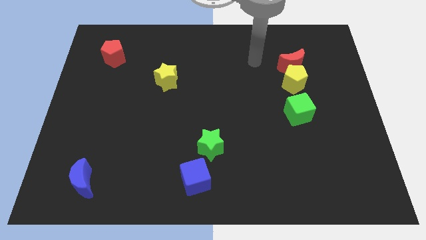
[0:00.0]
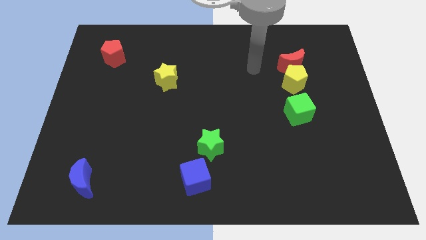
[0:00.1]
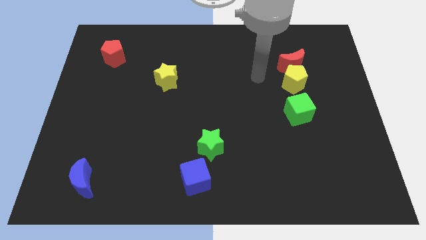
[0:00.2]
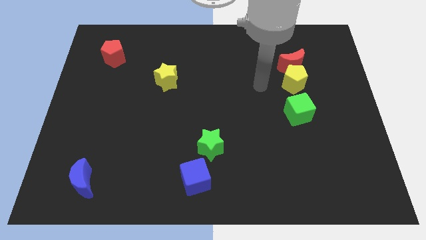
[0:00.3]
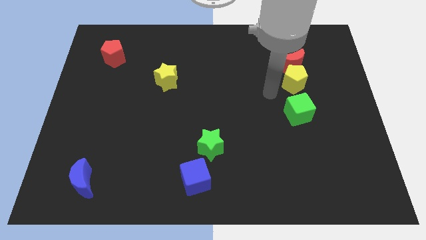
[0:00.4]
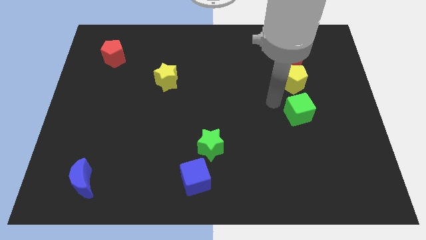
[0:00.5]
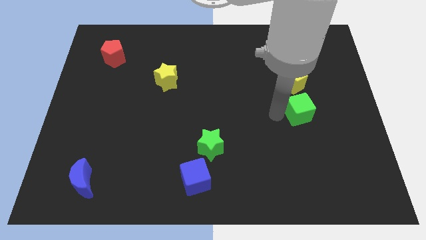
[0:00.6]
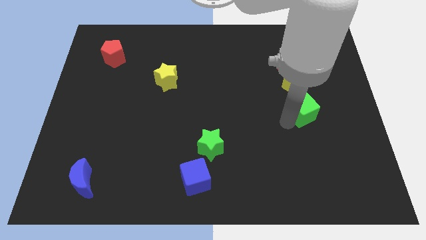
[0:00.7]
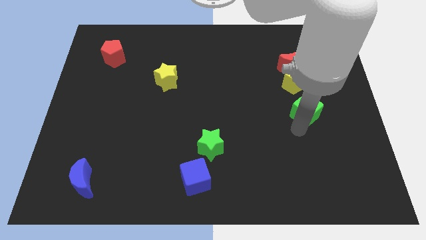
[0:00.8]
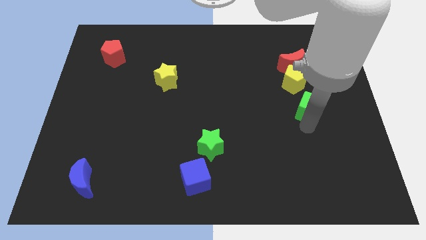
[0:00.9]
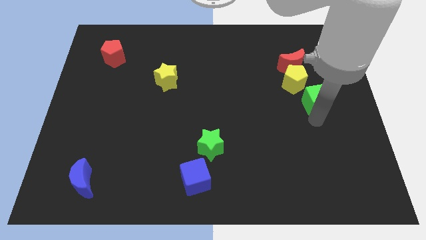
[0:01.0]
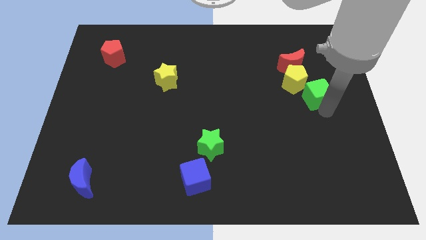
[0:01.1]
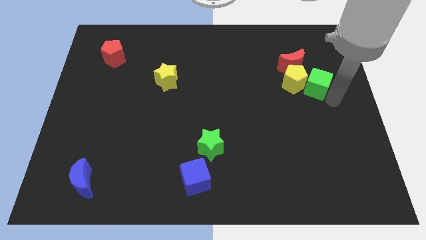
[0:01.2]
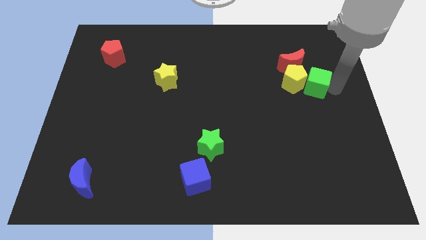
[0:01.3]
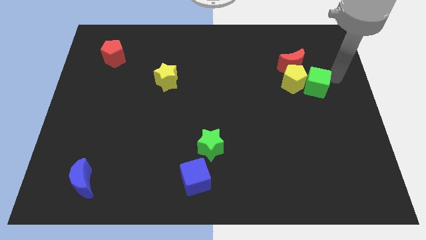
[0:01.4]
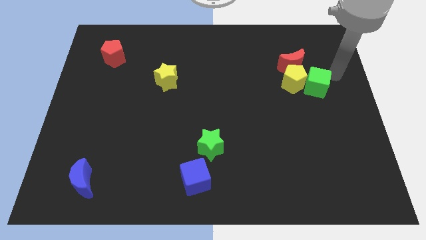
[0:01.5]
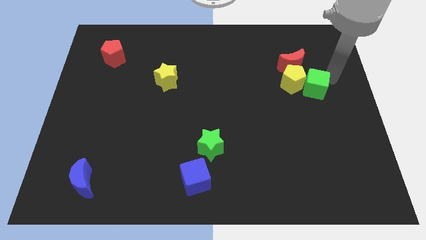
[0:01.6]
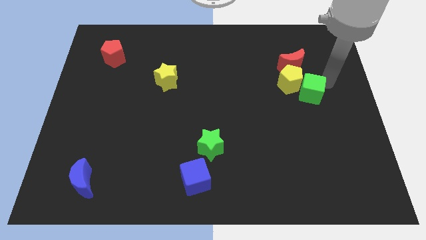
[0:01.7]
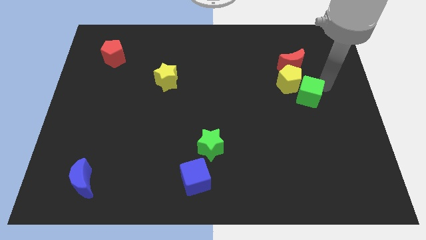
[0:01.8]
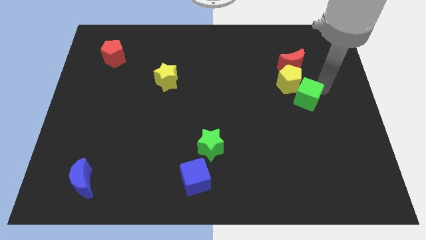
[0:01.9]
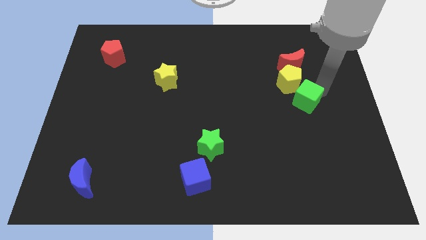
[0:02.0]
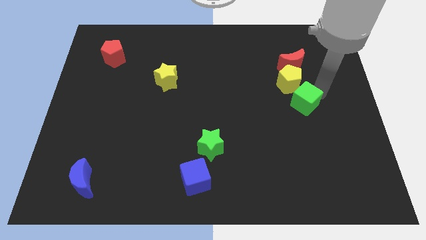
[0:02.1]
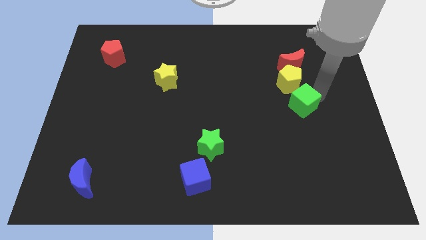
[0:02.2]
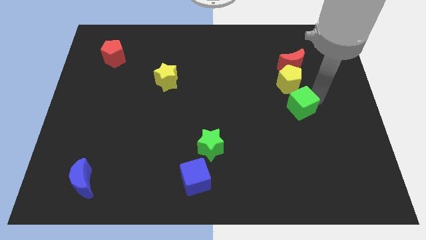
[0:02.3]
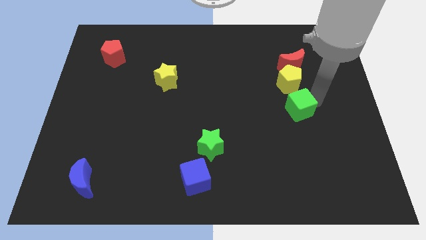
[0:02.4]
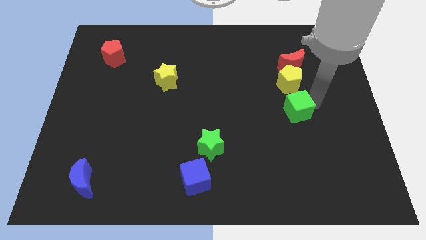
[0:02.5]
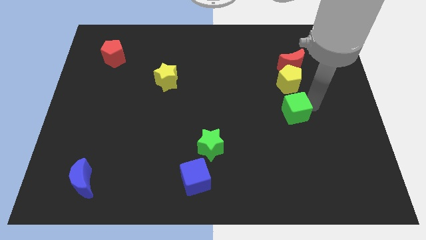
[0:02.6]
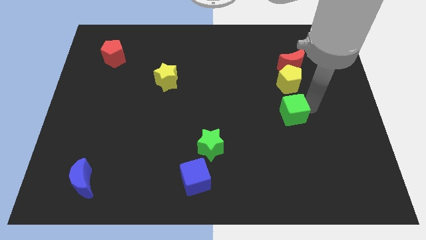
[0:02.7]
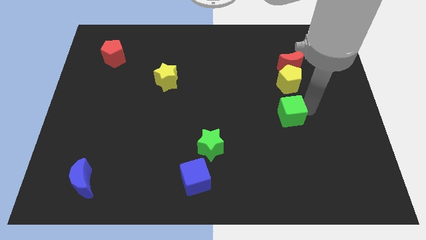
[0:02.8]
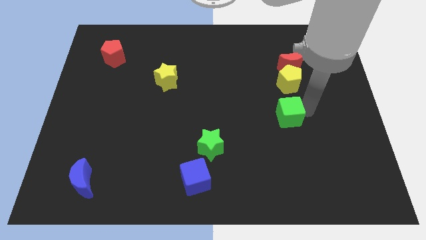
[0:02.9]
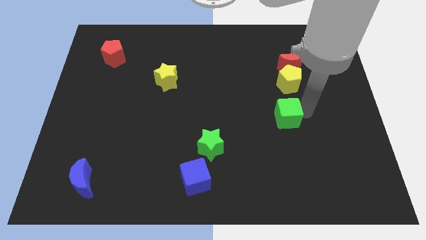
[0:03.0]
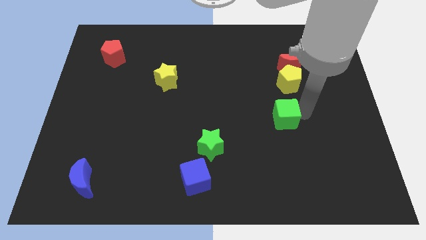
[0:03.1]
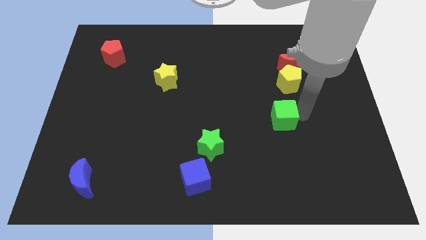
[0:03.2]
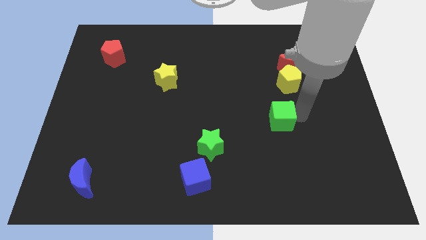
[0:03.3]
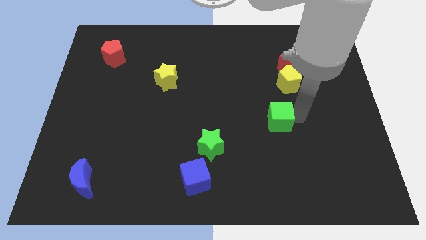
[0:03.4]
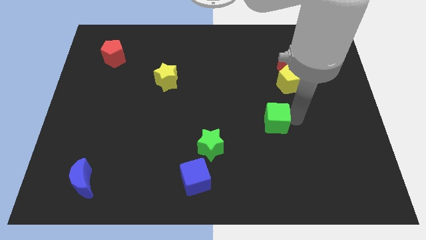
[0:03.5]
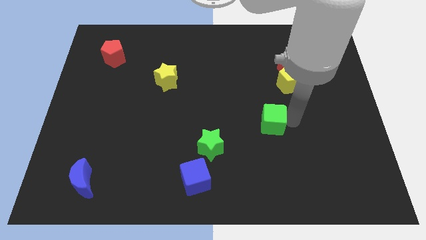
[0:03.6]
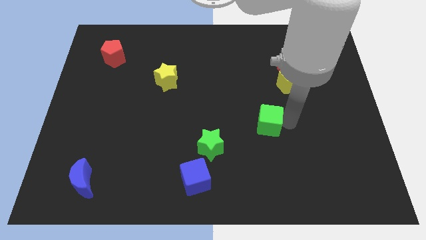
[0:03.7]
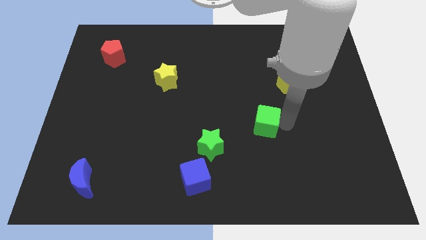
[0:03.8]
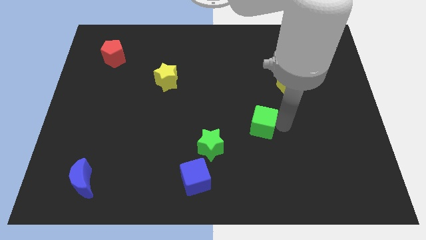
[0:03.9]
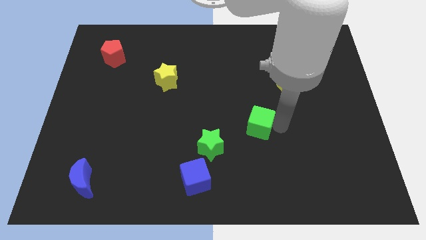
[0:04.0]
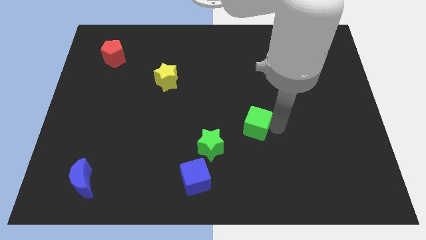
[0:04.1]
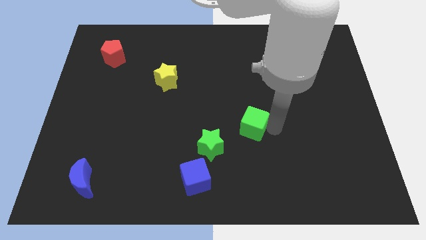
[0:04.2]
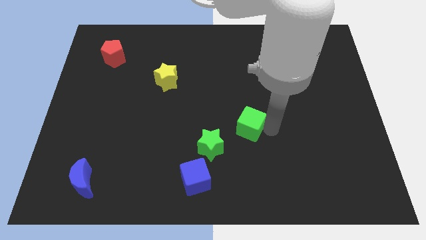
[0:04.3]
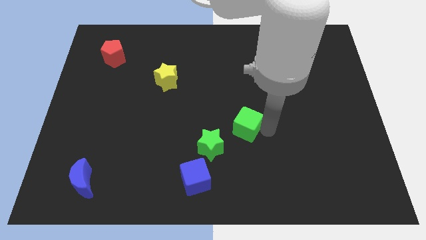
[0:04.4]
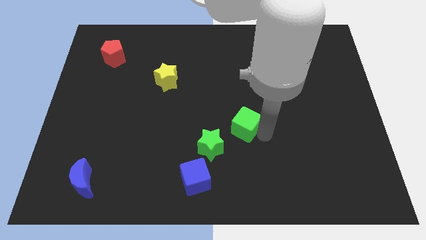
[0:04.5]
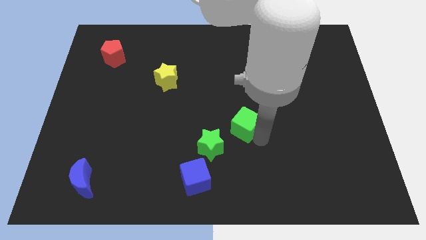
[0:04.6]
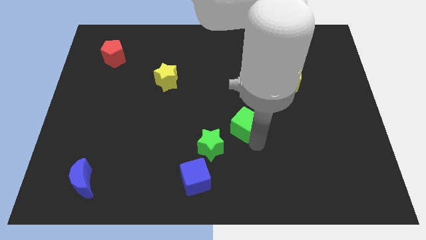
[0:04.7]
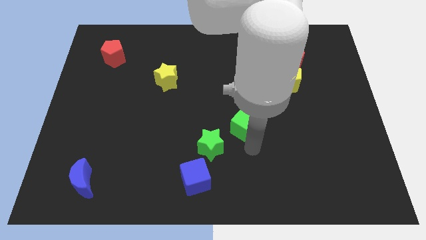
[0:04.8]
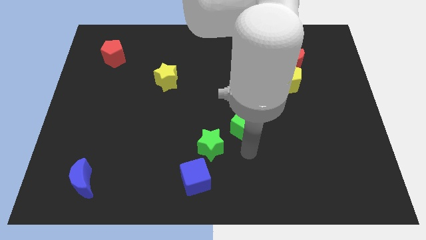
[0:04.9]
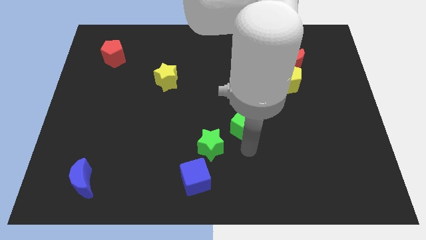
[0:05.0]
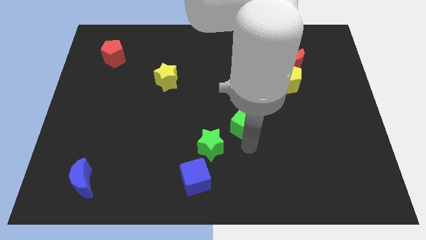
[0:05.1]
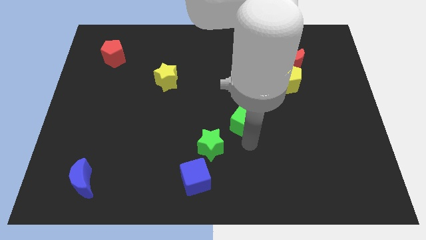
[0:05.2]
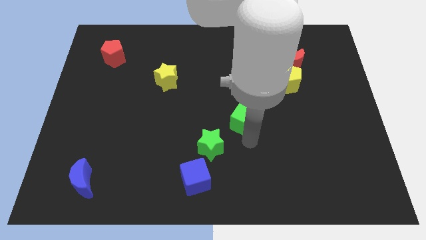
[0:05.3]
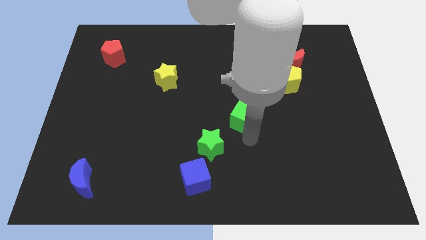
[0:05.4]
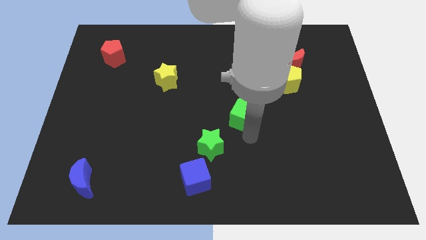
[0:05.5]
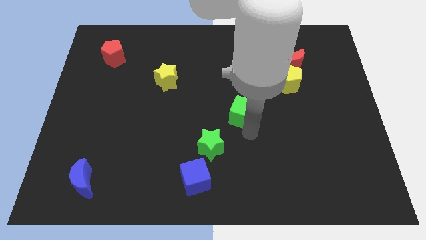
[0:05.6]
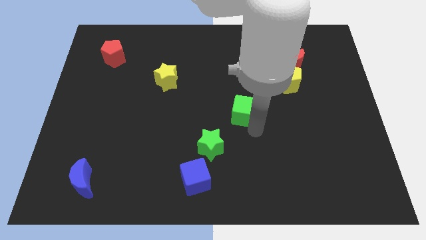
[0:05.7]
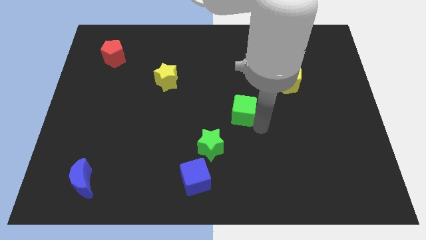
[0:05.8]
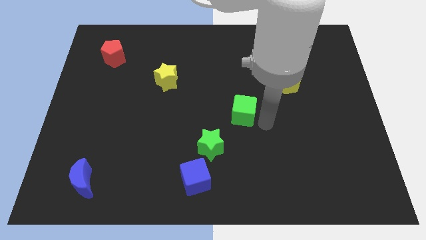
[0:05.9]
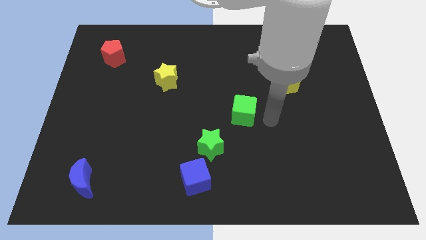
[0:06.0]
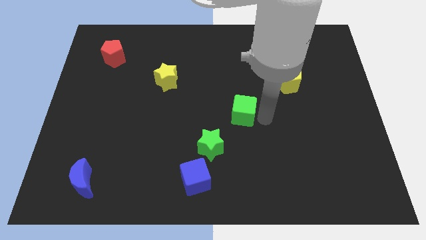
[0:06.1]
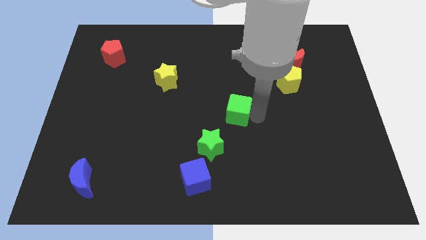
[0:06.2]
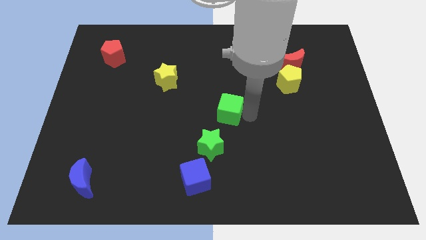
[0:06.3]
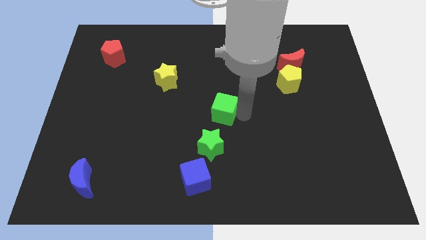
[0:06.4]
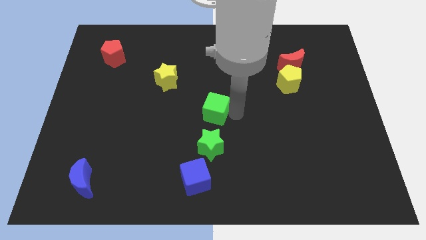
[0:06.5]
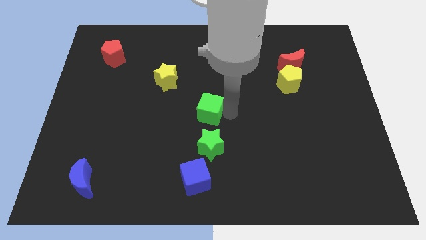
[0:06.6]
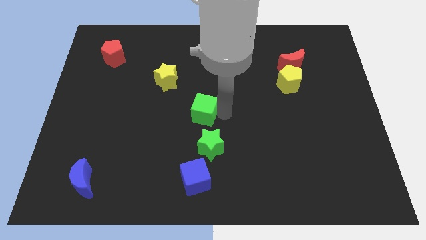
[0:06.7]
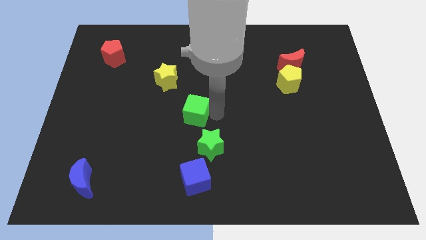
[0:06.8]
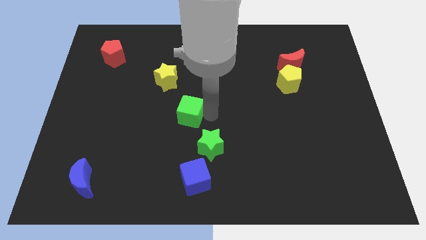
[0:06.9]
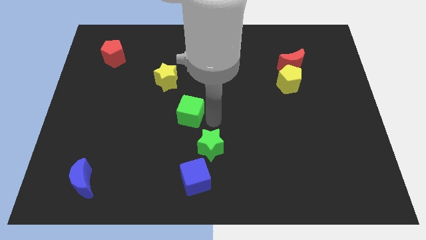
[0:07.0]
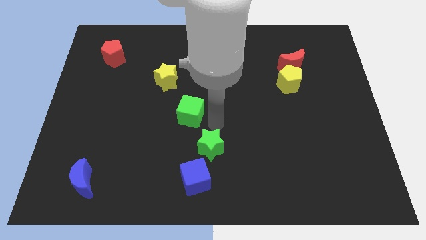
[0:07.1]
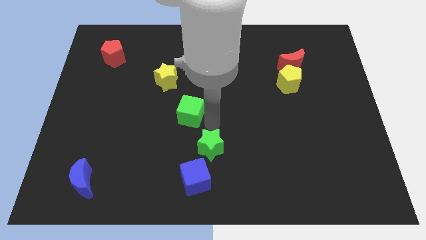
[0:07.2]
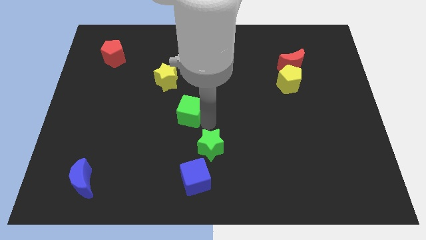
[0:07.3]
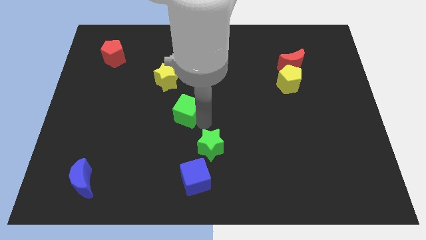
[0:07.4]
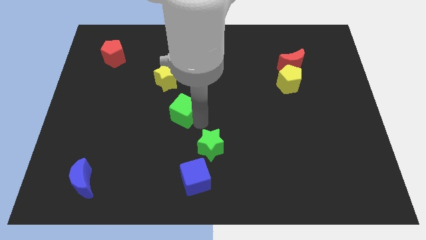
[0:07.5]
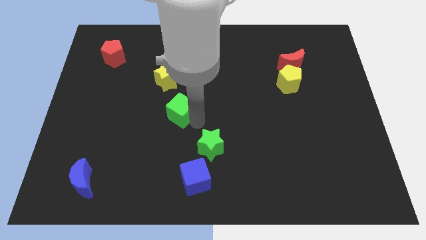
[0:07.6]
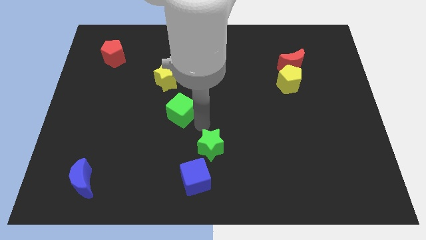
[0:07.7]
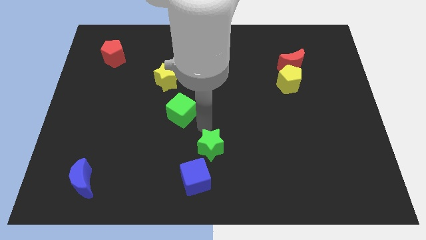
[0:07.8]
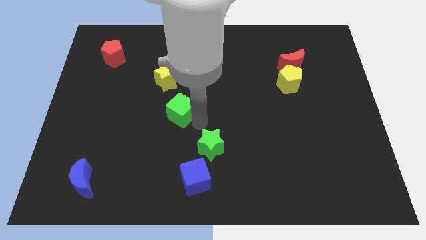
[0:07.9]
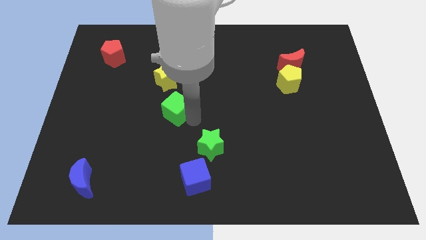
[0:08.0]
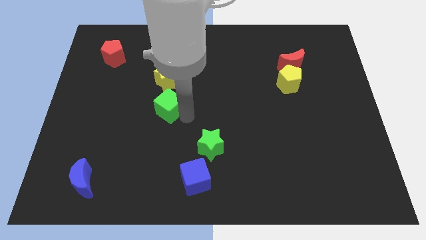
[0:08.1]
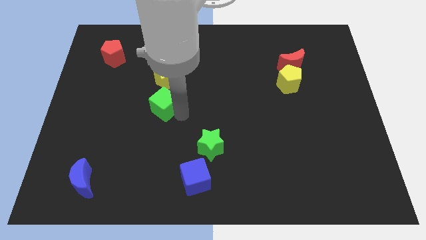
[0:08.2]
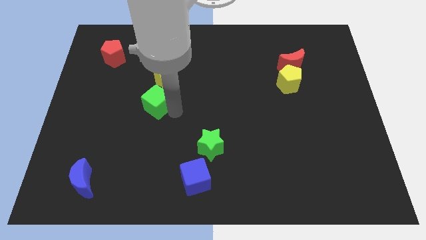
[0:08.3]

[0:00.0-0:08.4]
move the green cube to the bottom left of the yellow star

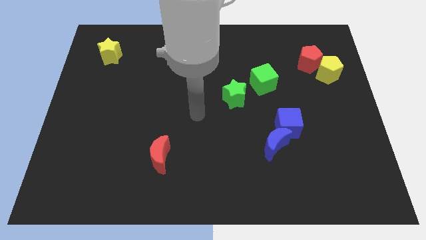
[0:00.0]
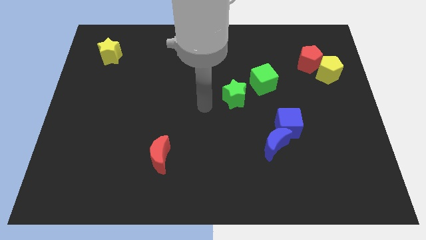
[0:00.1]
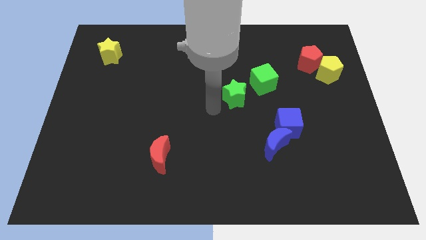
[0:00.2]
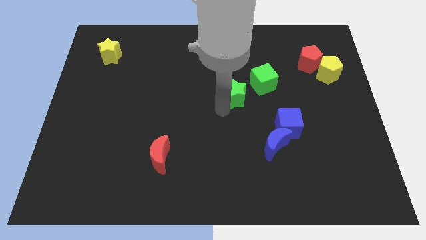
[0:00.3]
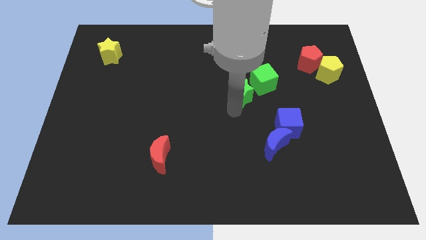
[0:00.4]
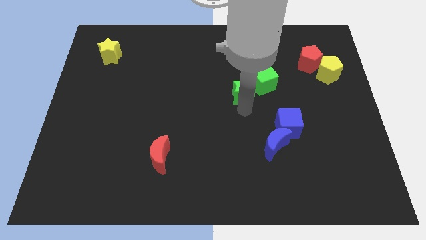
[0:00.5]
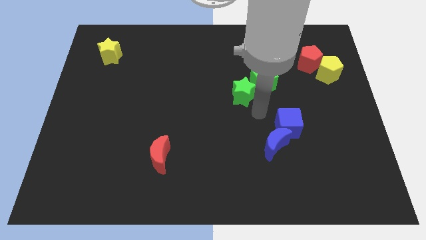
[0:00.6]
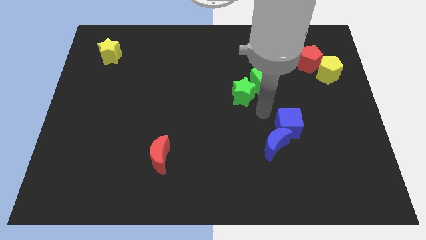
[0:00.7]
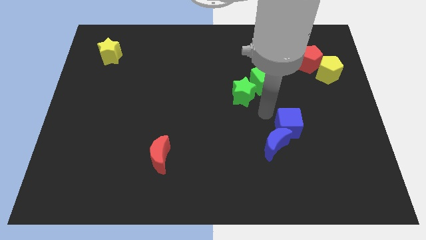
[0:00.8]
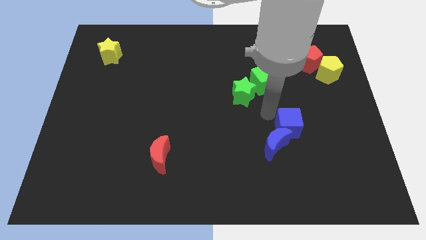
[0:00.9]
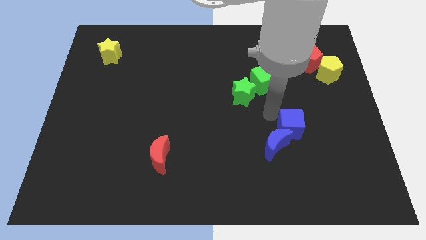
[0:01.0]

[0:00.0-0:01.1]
push the blue cube right of the blue moon
